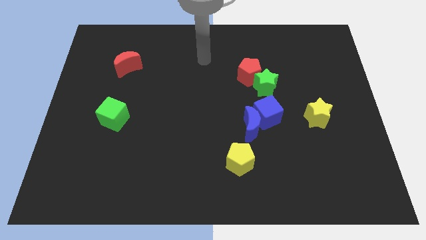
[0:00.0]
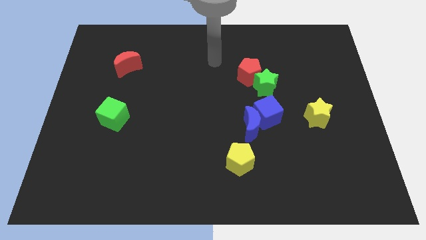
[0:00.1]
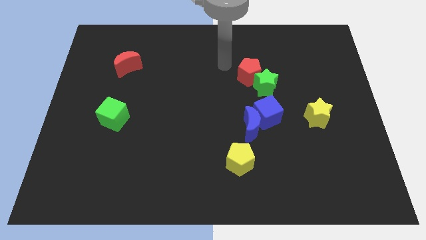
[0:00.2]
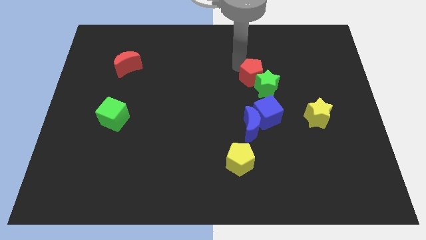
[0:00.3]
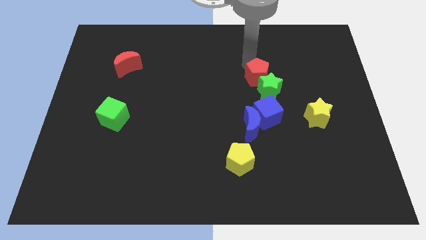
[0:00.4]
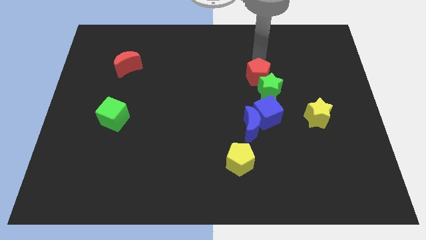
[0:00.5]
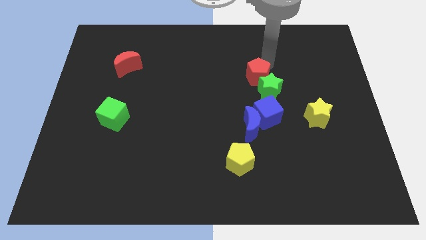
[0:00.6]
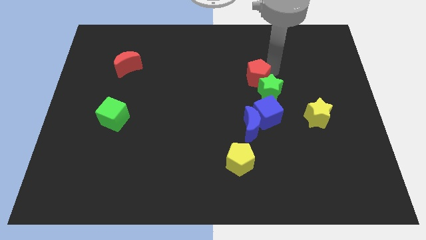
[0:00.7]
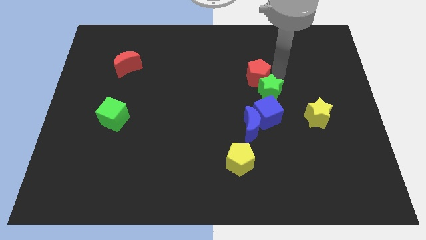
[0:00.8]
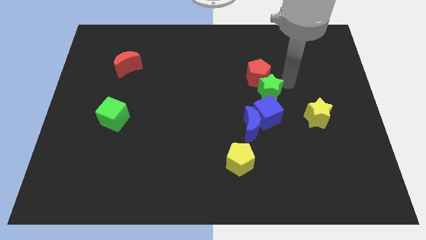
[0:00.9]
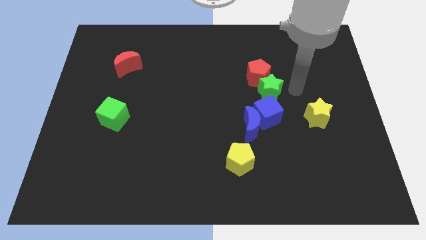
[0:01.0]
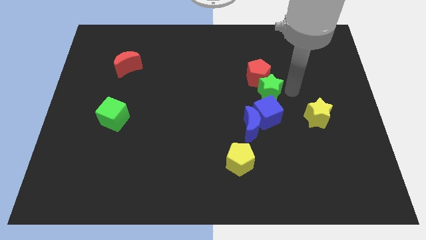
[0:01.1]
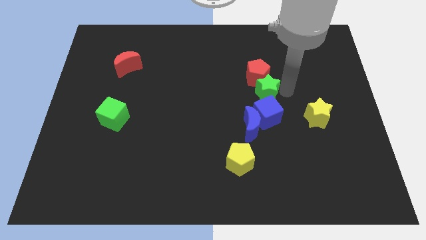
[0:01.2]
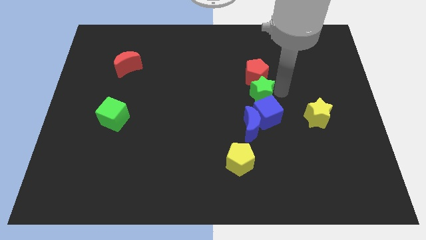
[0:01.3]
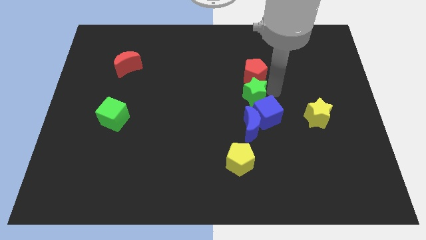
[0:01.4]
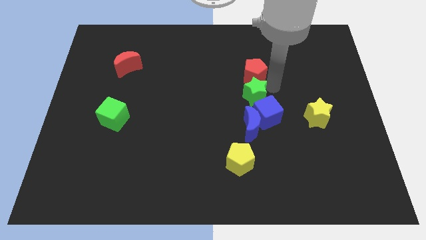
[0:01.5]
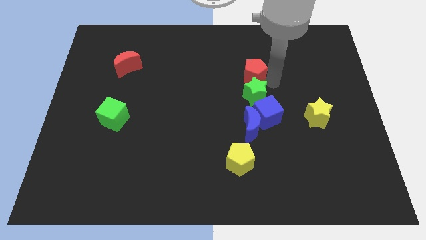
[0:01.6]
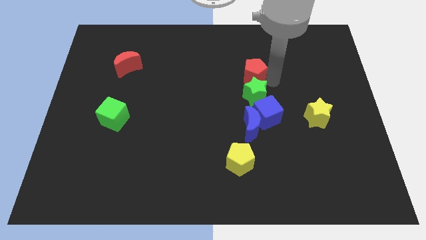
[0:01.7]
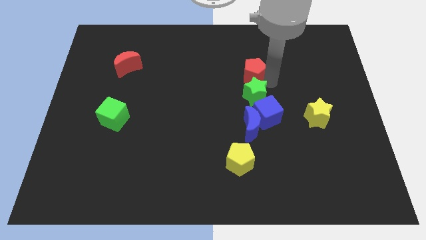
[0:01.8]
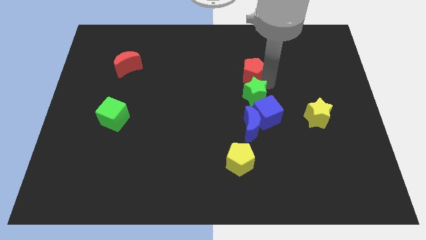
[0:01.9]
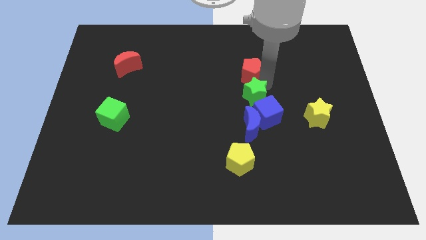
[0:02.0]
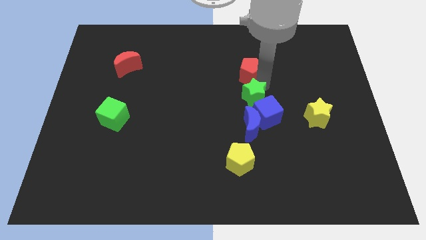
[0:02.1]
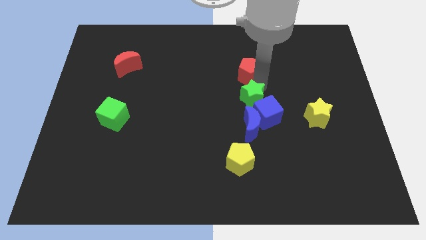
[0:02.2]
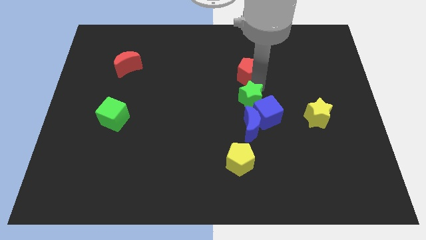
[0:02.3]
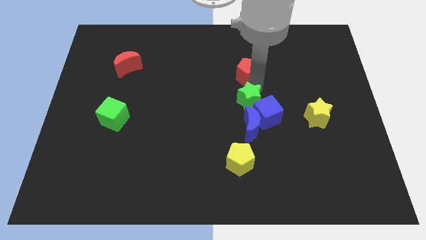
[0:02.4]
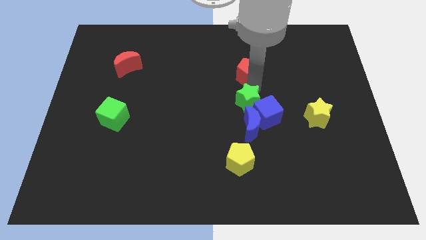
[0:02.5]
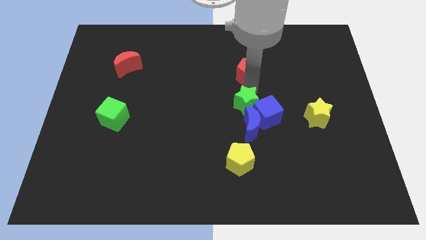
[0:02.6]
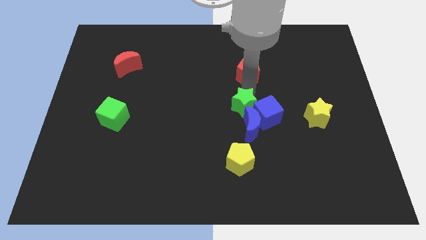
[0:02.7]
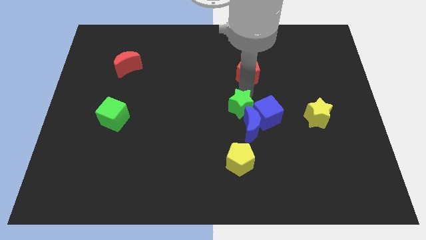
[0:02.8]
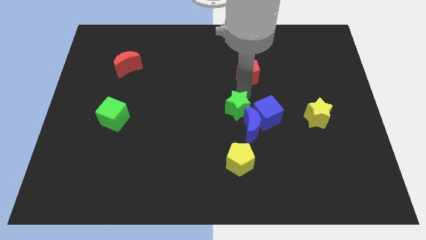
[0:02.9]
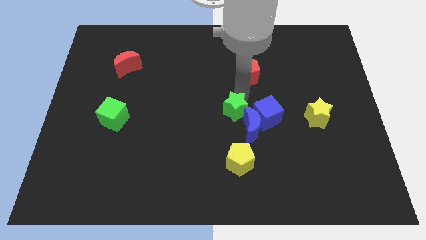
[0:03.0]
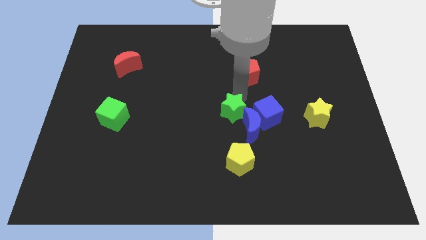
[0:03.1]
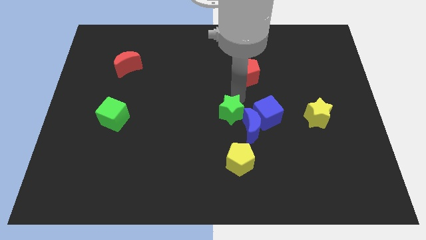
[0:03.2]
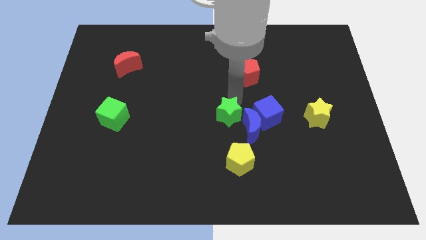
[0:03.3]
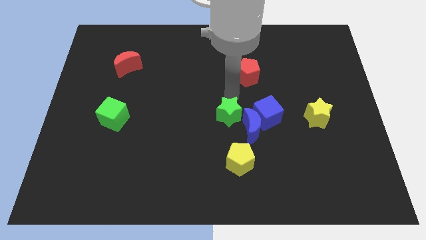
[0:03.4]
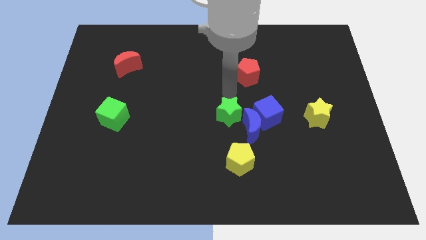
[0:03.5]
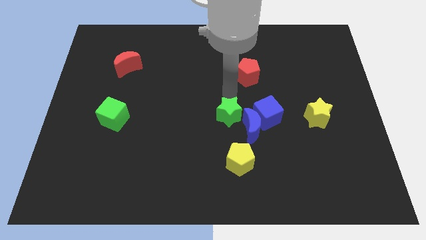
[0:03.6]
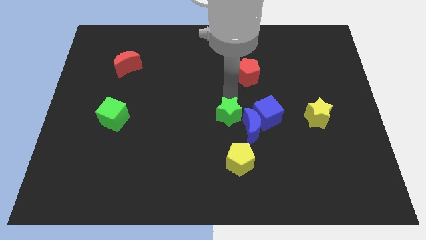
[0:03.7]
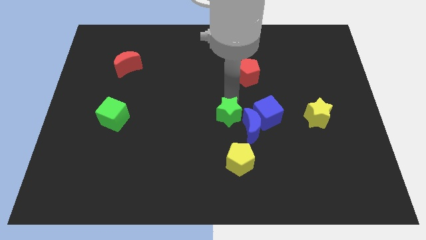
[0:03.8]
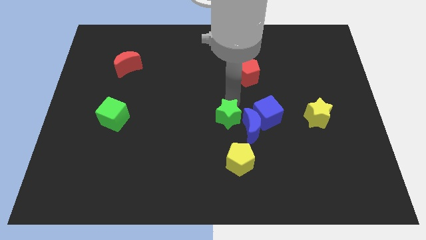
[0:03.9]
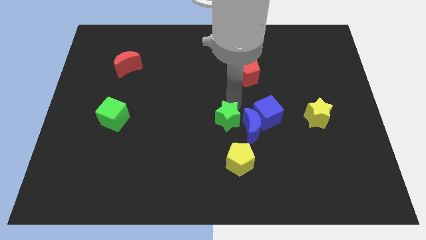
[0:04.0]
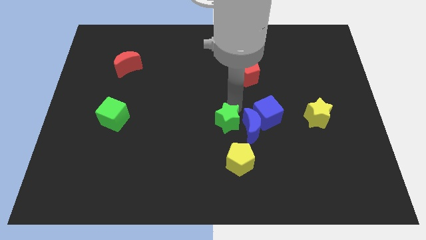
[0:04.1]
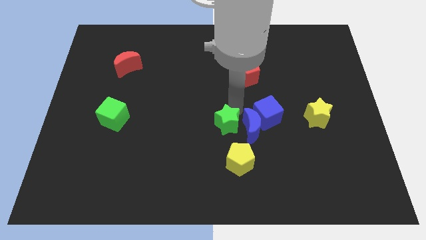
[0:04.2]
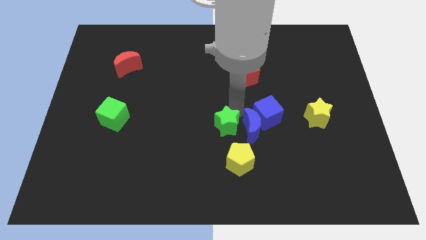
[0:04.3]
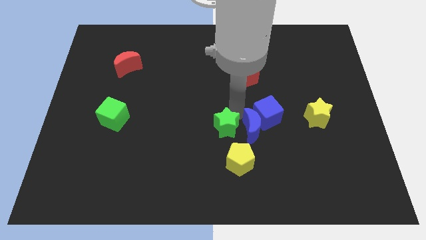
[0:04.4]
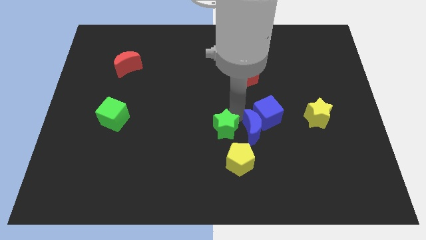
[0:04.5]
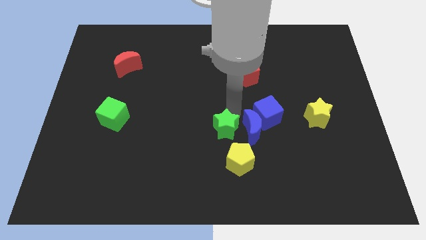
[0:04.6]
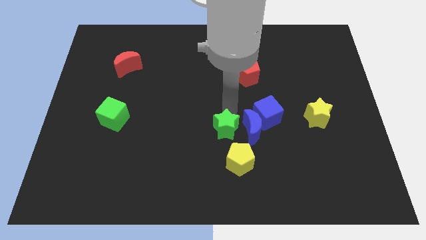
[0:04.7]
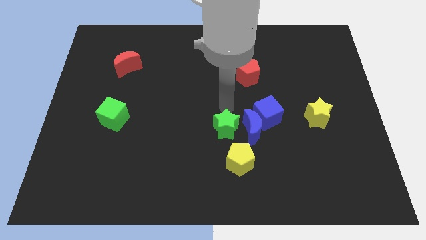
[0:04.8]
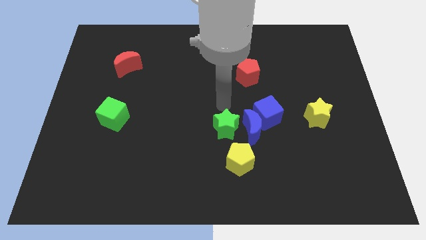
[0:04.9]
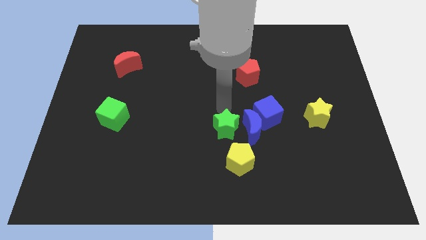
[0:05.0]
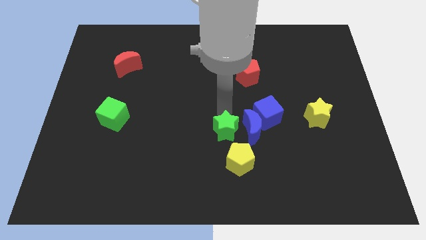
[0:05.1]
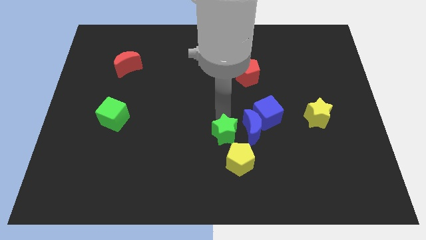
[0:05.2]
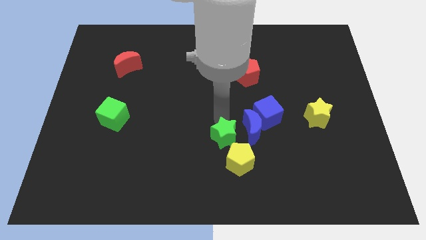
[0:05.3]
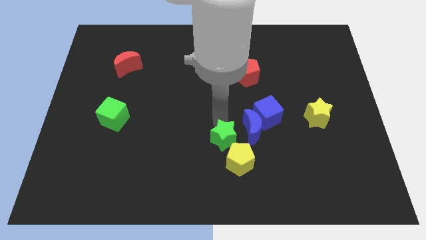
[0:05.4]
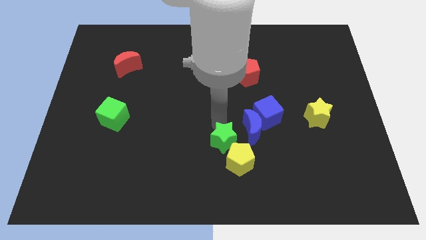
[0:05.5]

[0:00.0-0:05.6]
move the green star next to the yellow pentagon

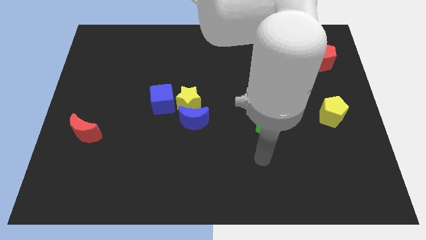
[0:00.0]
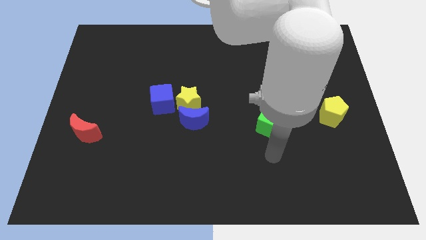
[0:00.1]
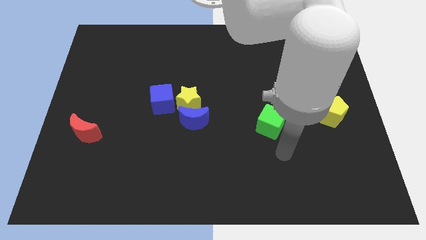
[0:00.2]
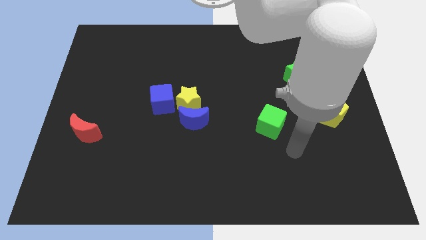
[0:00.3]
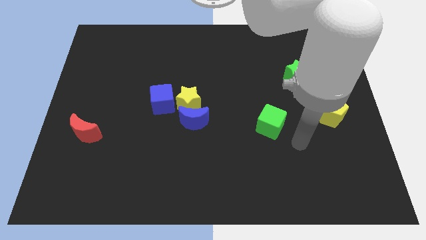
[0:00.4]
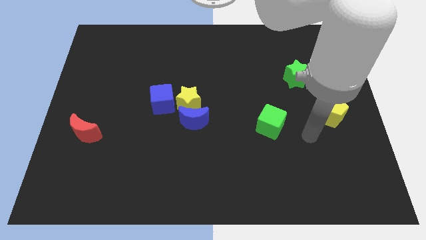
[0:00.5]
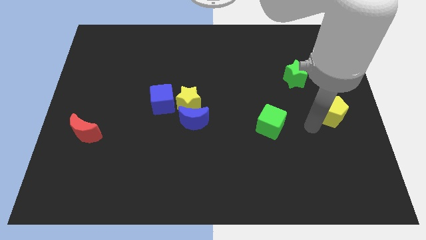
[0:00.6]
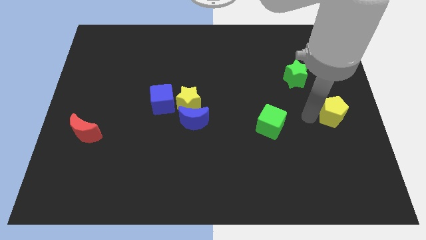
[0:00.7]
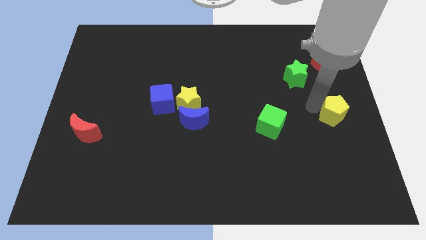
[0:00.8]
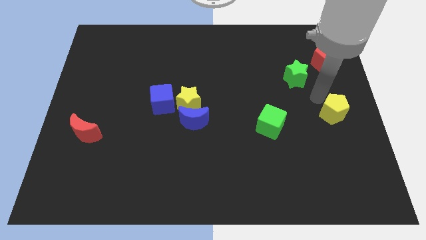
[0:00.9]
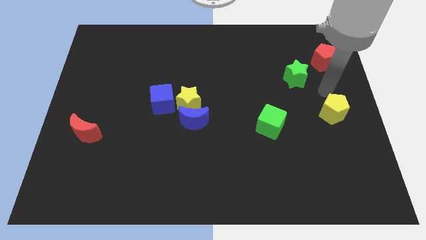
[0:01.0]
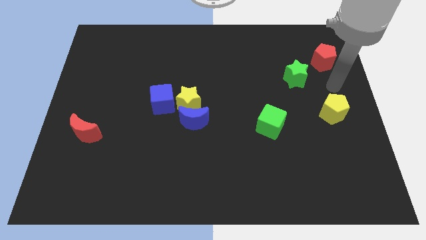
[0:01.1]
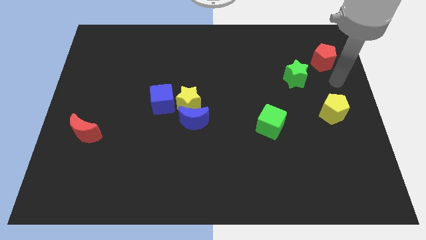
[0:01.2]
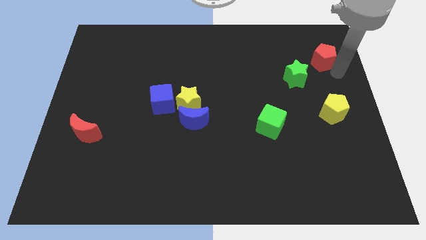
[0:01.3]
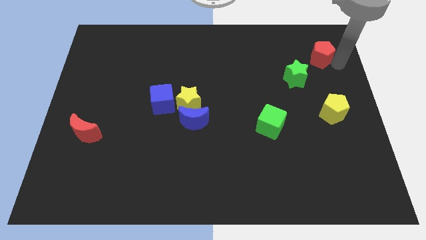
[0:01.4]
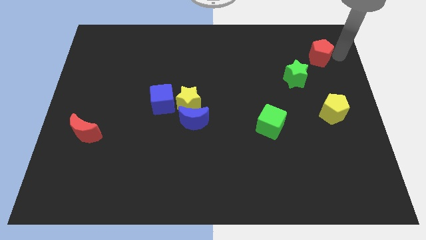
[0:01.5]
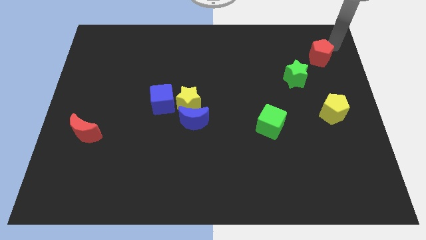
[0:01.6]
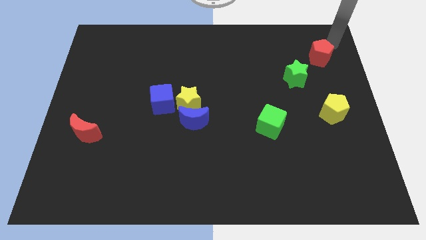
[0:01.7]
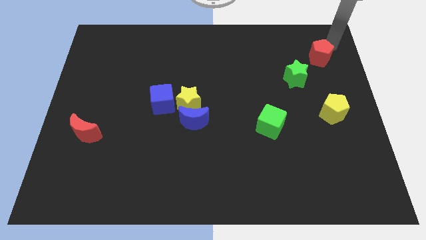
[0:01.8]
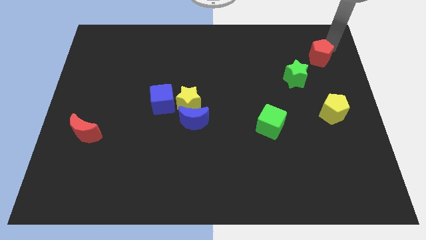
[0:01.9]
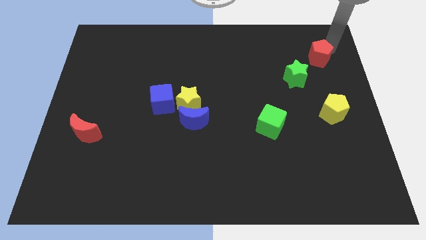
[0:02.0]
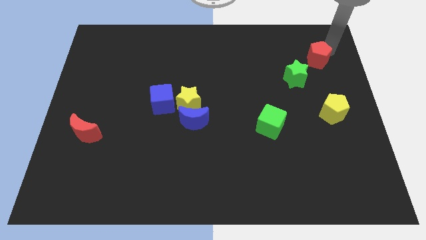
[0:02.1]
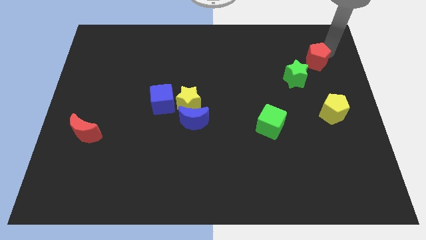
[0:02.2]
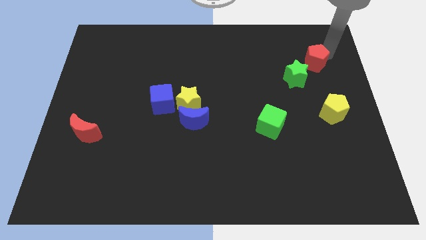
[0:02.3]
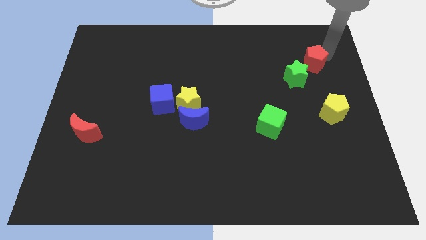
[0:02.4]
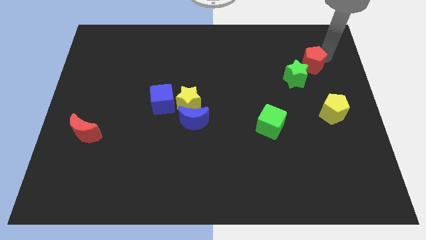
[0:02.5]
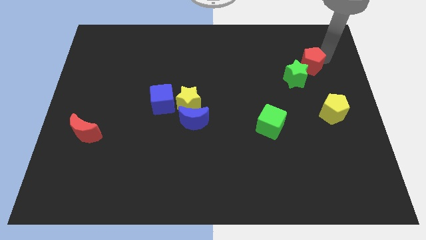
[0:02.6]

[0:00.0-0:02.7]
put the red pentagon towards the green star
